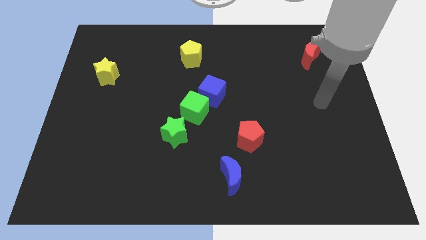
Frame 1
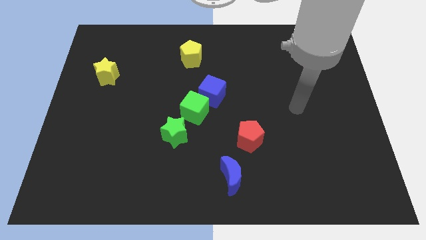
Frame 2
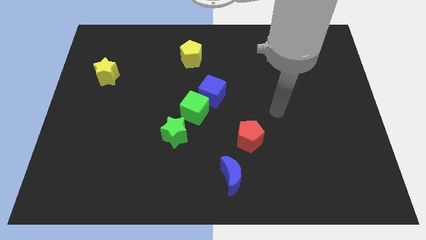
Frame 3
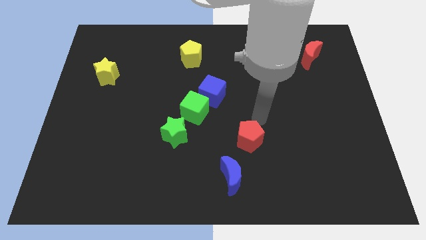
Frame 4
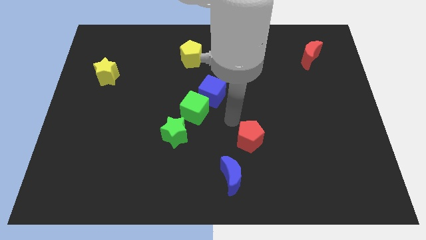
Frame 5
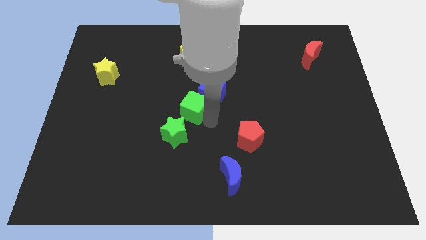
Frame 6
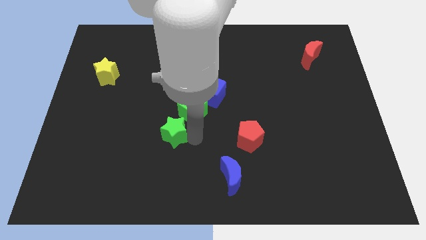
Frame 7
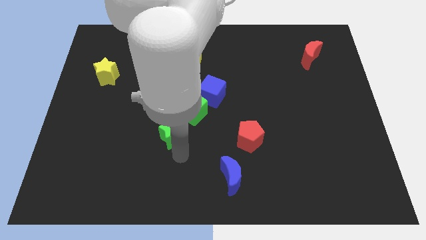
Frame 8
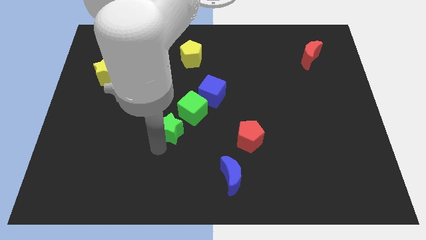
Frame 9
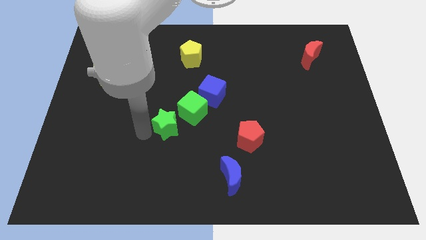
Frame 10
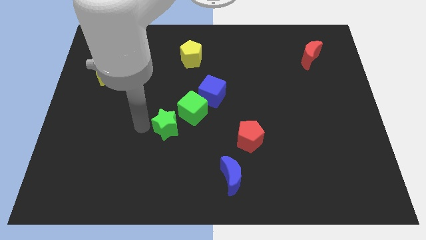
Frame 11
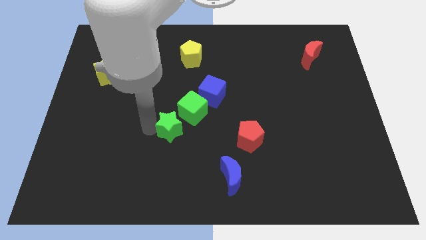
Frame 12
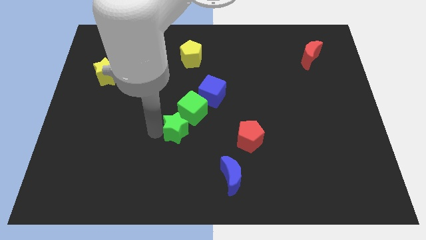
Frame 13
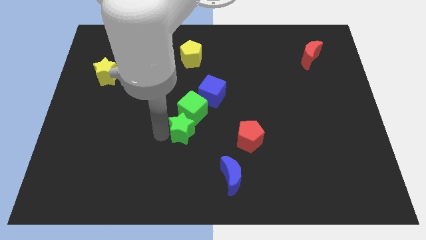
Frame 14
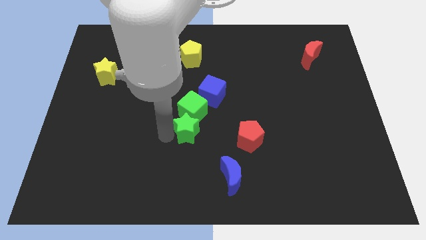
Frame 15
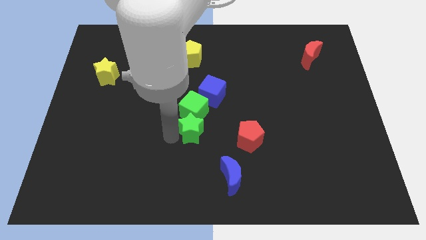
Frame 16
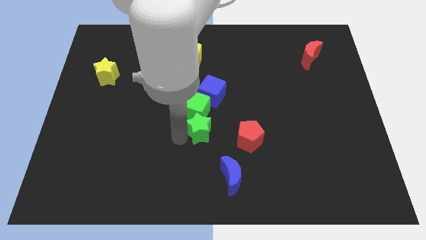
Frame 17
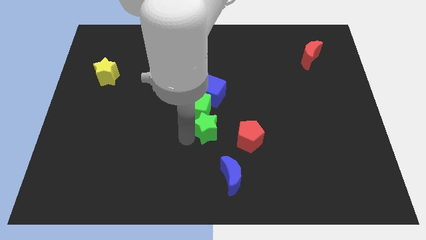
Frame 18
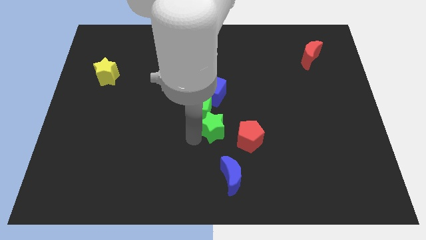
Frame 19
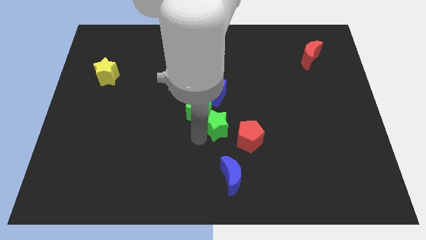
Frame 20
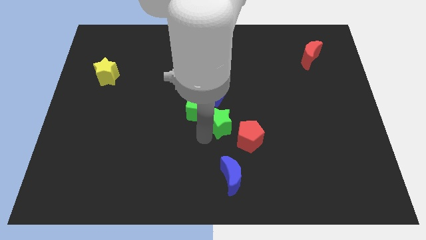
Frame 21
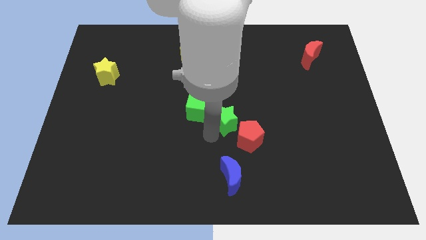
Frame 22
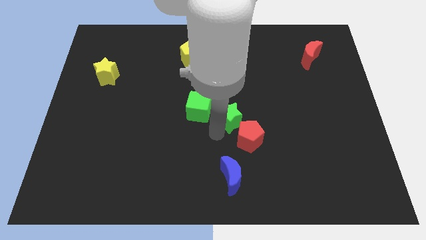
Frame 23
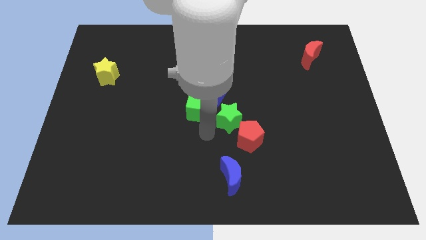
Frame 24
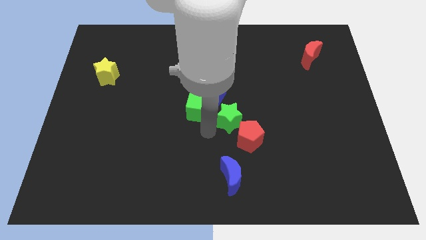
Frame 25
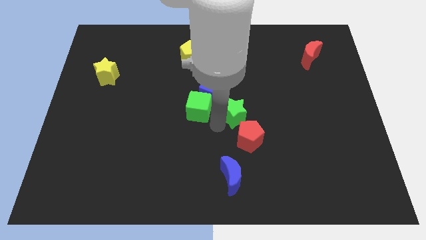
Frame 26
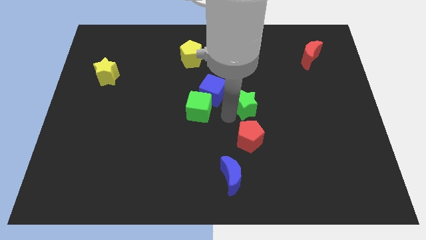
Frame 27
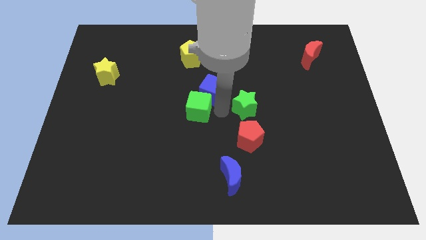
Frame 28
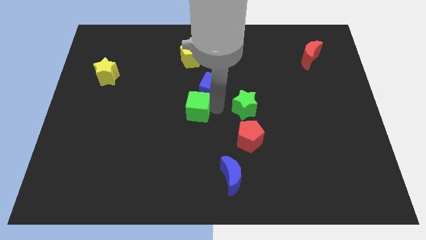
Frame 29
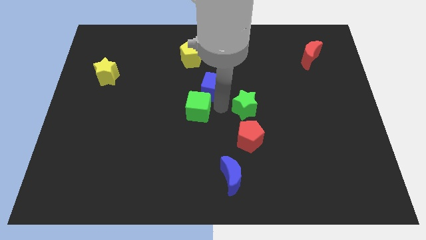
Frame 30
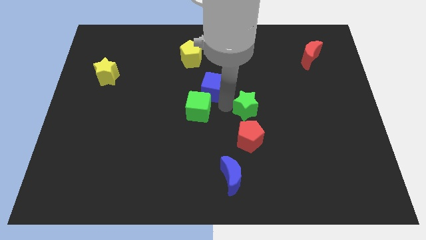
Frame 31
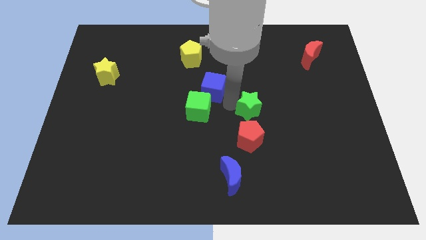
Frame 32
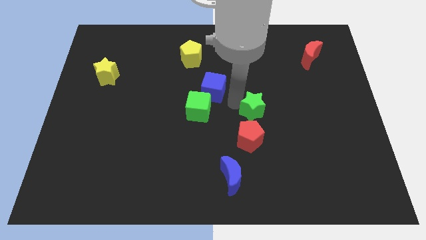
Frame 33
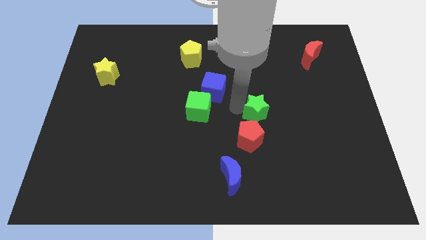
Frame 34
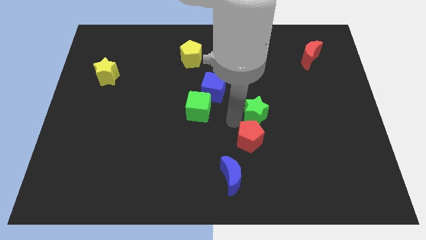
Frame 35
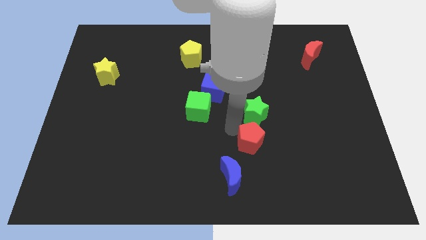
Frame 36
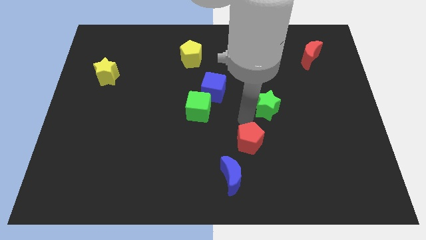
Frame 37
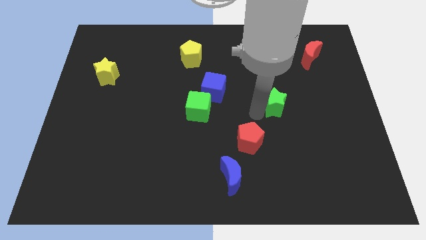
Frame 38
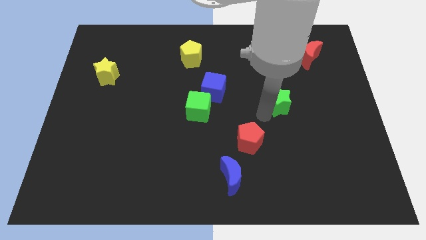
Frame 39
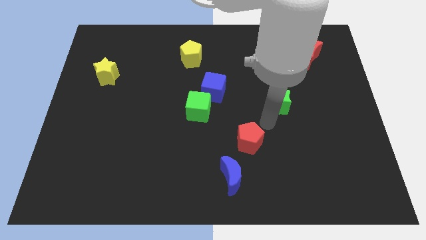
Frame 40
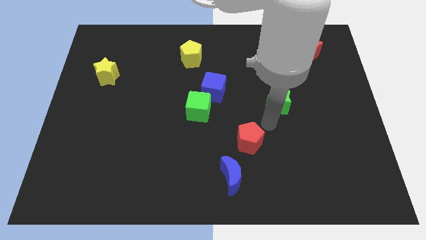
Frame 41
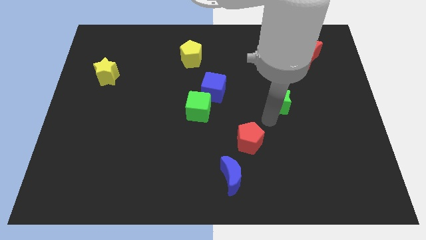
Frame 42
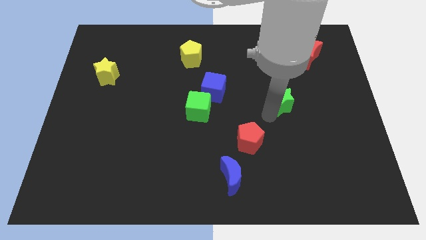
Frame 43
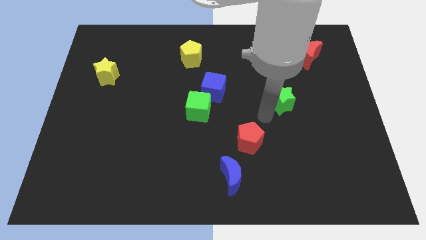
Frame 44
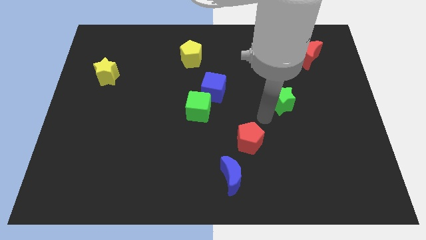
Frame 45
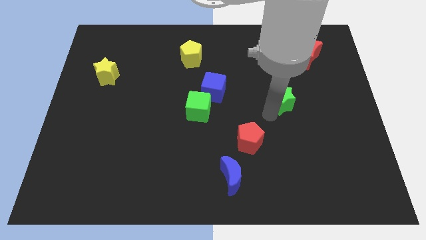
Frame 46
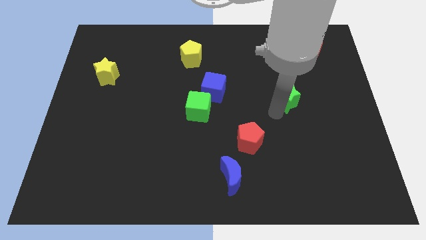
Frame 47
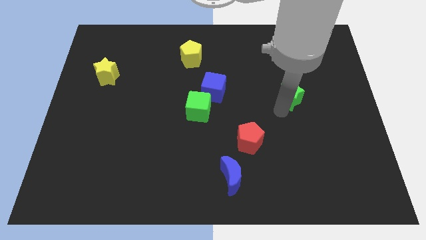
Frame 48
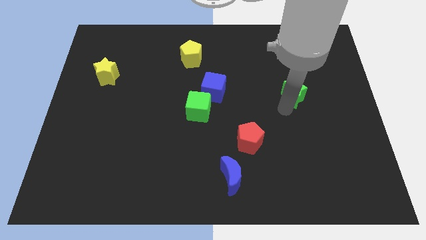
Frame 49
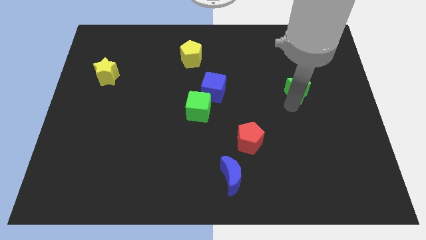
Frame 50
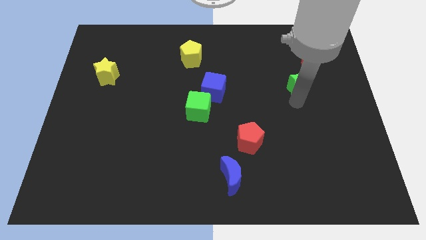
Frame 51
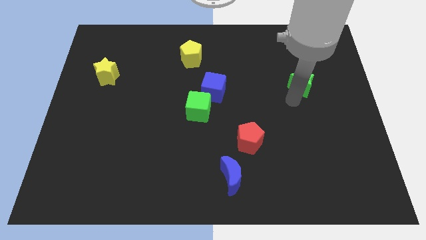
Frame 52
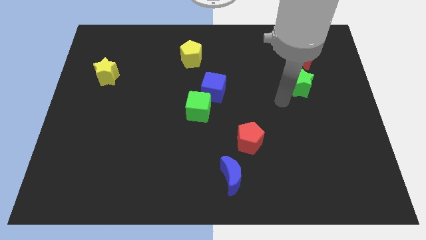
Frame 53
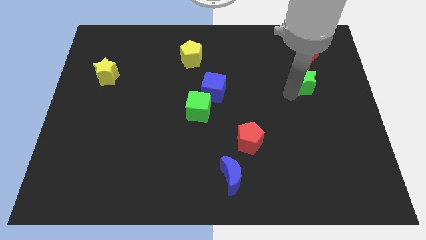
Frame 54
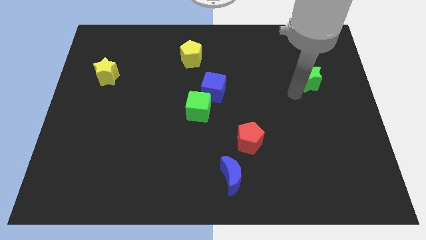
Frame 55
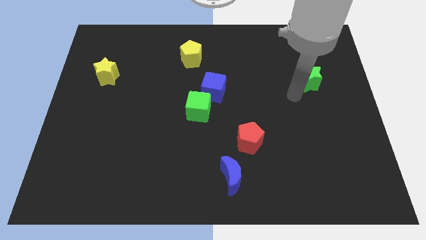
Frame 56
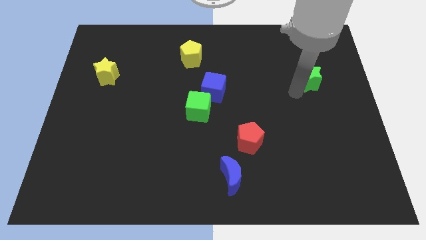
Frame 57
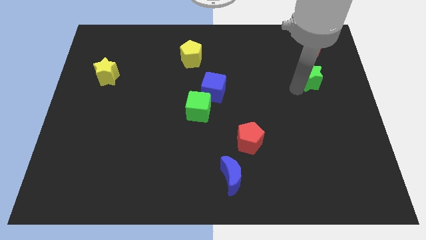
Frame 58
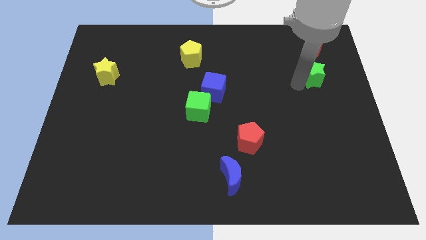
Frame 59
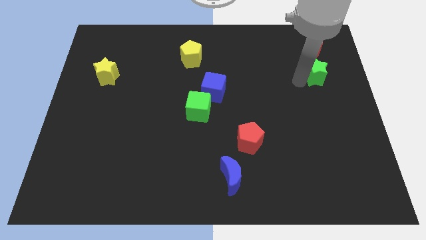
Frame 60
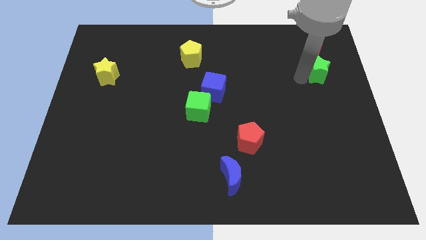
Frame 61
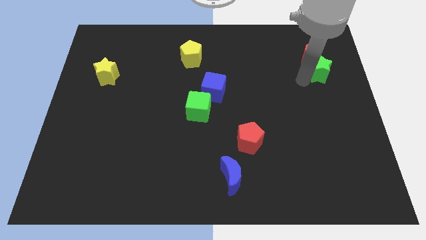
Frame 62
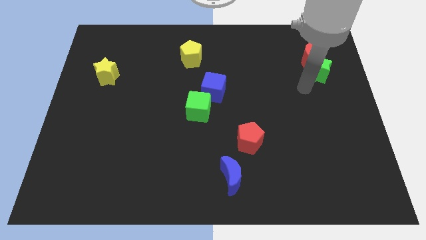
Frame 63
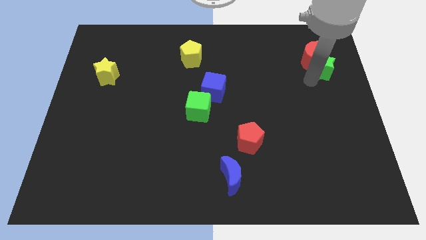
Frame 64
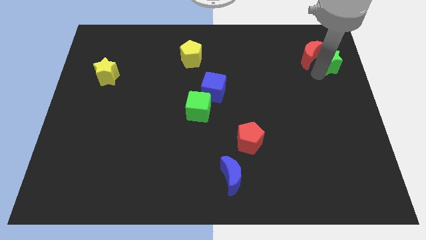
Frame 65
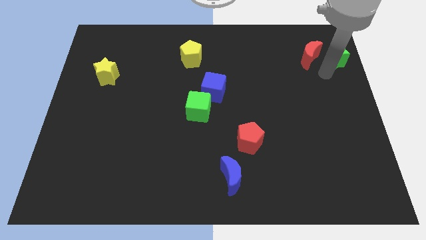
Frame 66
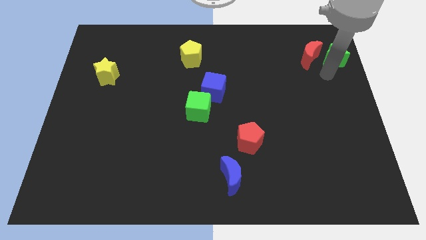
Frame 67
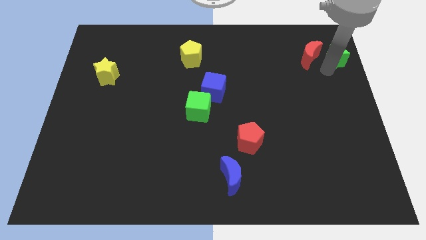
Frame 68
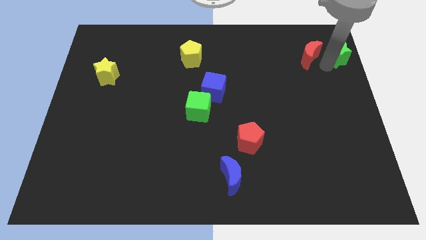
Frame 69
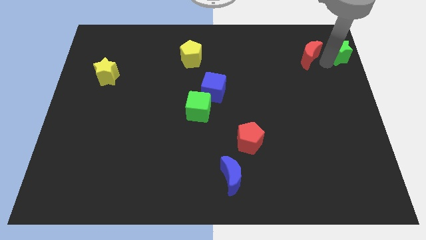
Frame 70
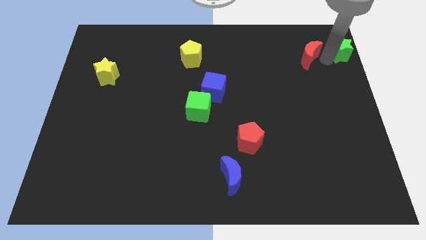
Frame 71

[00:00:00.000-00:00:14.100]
put the green star to the top right corner
